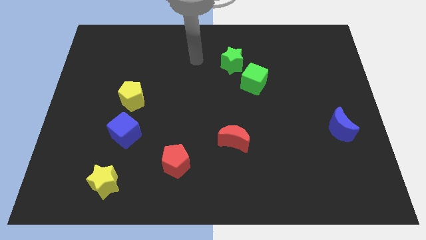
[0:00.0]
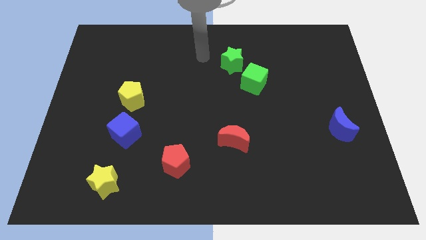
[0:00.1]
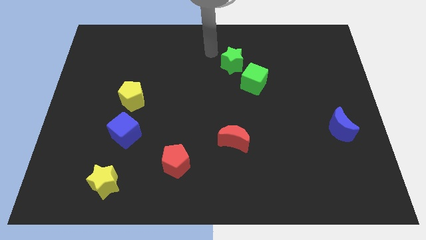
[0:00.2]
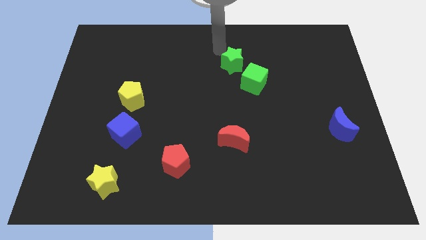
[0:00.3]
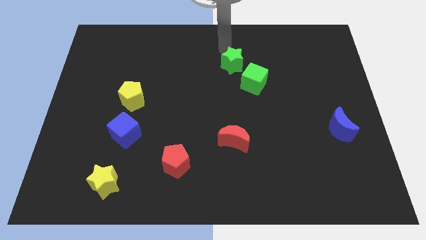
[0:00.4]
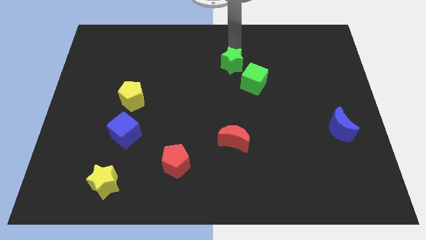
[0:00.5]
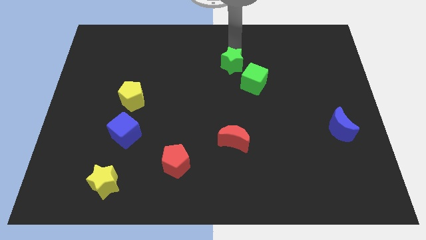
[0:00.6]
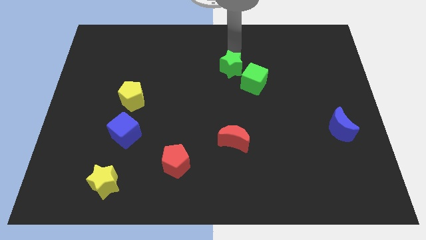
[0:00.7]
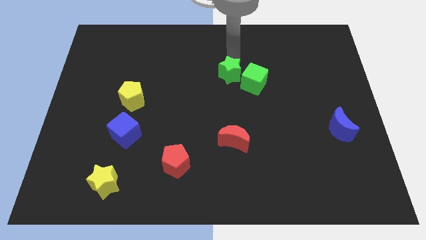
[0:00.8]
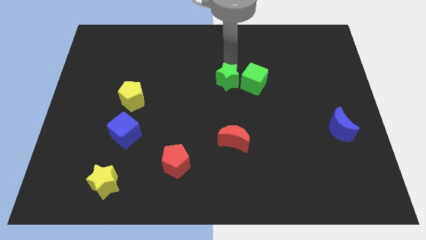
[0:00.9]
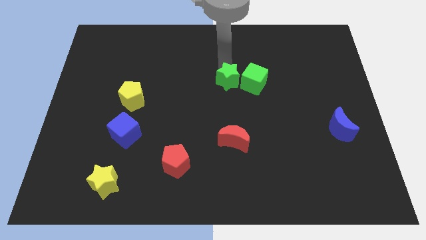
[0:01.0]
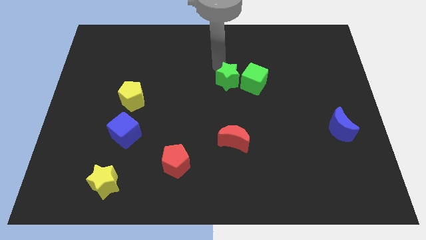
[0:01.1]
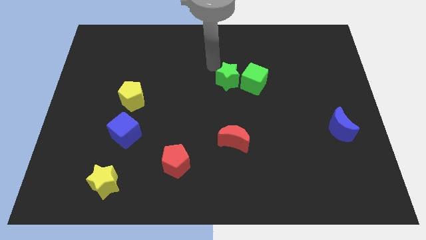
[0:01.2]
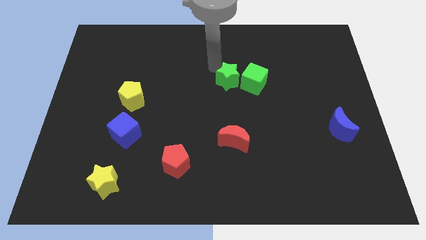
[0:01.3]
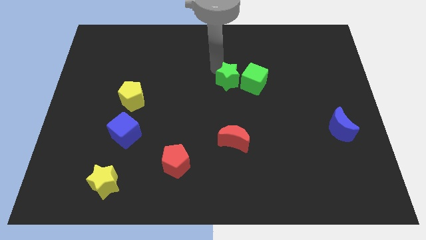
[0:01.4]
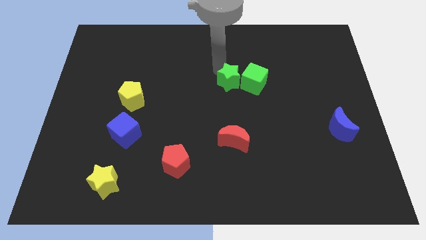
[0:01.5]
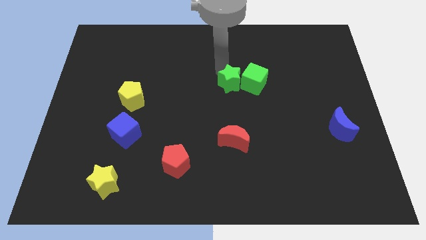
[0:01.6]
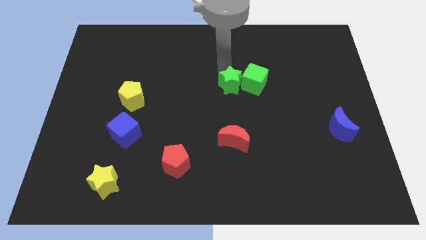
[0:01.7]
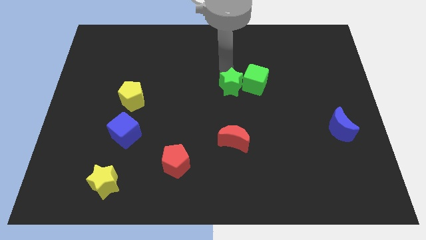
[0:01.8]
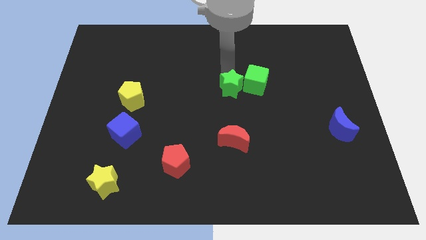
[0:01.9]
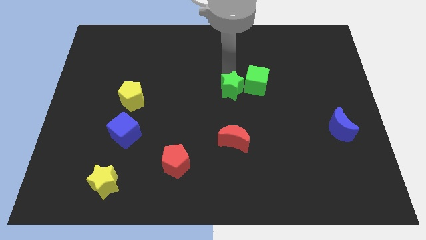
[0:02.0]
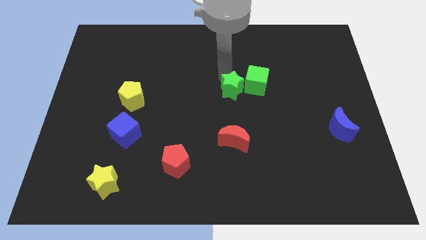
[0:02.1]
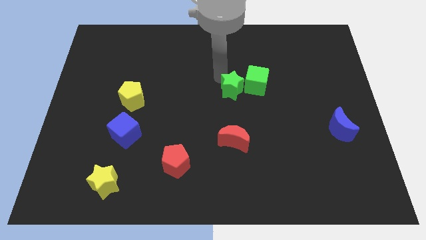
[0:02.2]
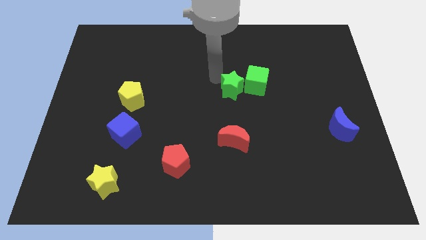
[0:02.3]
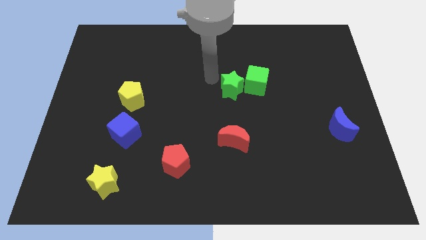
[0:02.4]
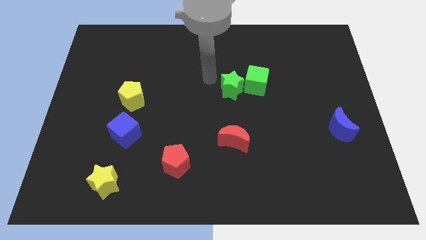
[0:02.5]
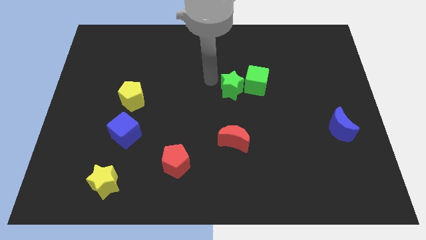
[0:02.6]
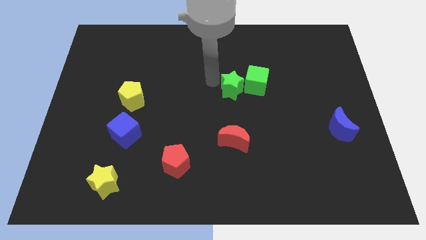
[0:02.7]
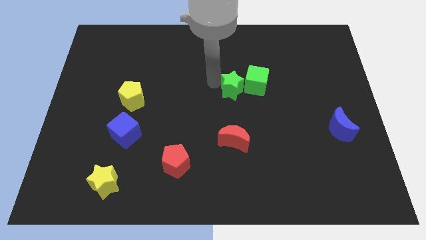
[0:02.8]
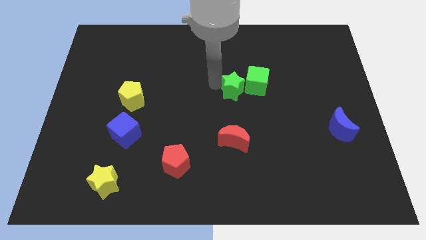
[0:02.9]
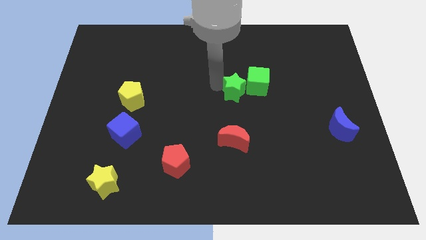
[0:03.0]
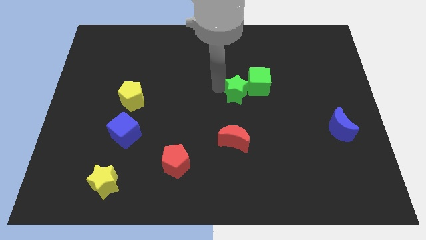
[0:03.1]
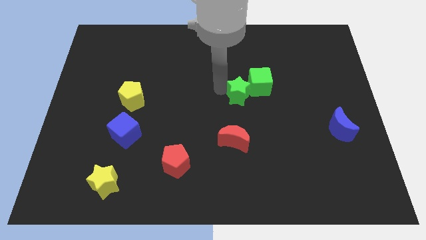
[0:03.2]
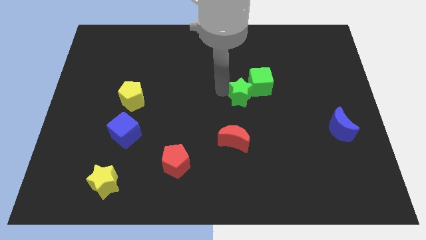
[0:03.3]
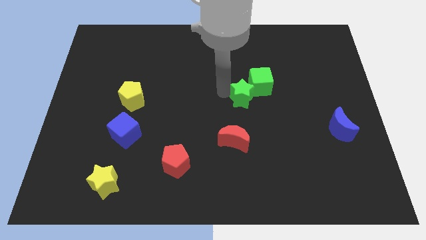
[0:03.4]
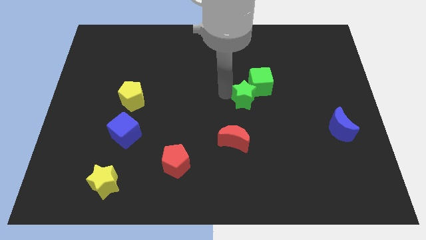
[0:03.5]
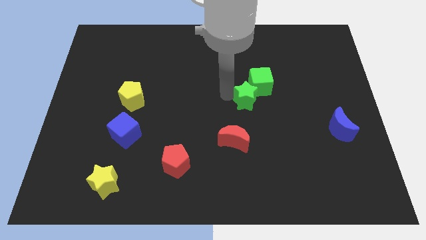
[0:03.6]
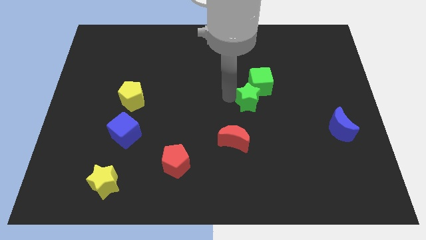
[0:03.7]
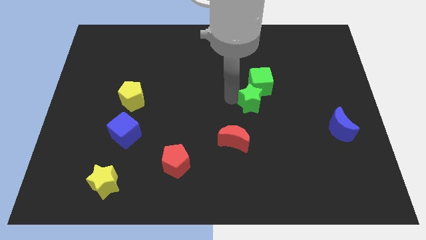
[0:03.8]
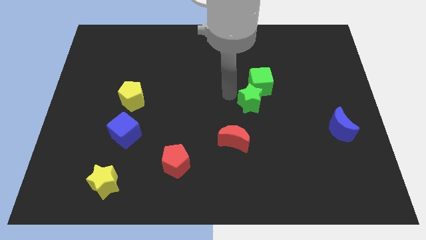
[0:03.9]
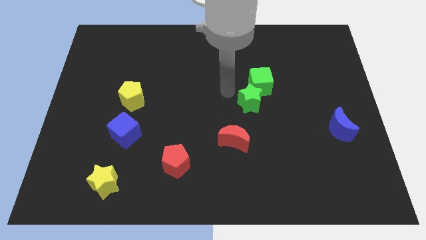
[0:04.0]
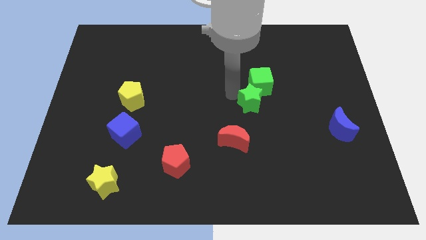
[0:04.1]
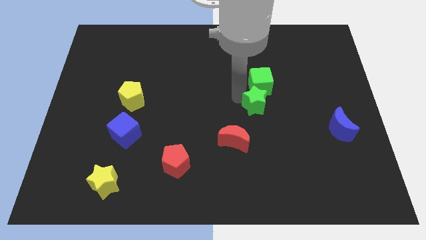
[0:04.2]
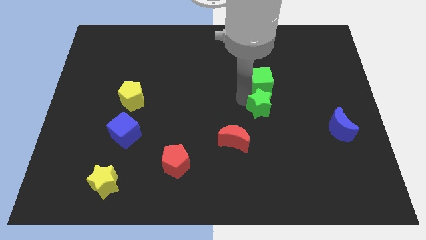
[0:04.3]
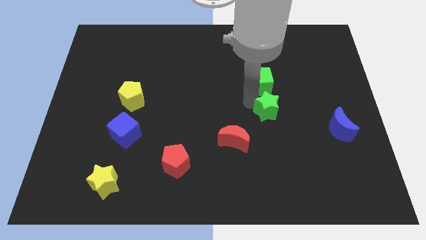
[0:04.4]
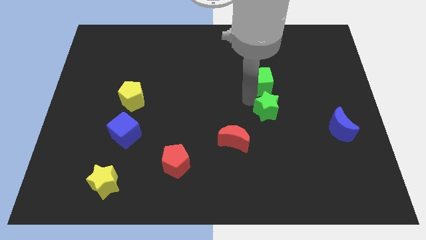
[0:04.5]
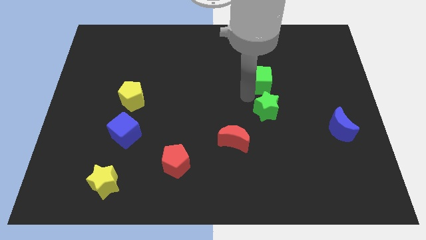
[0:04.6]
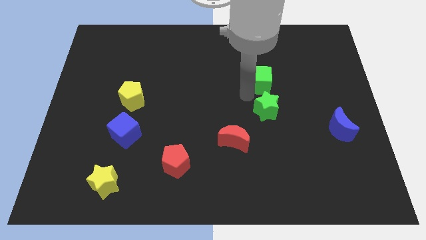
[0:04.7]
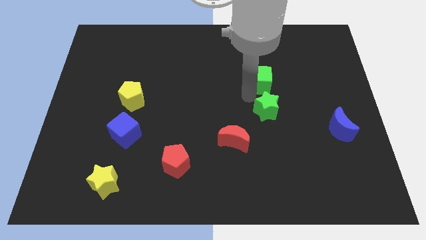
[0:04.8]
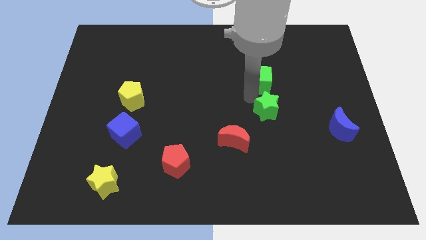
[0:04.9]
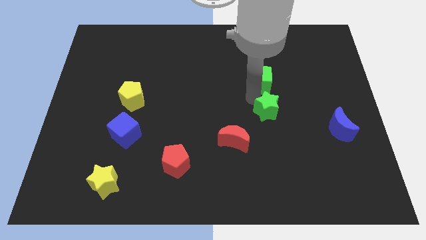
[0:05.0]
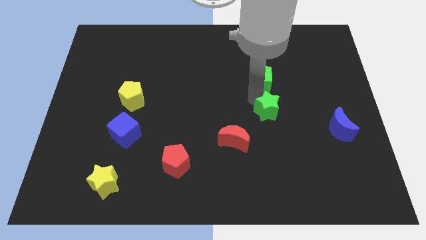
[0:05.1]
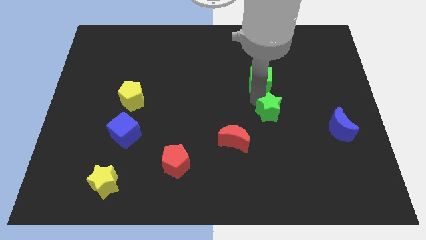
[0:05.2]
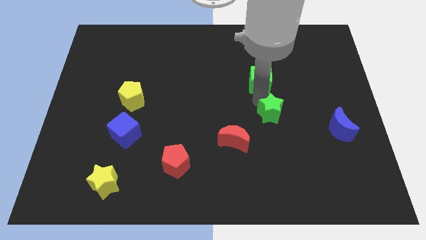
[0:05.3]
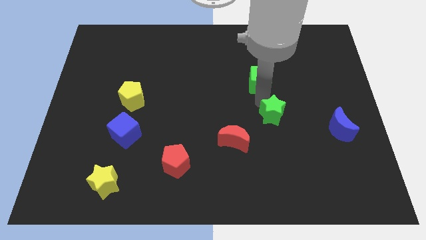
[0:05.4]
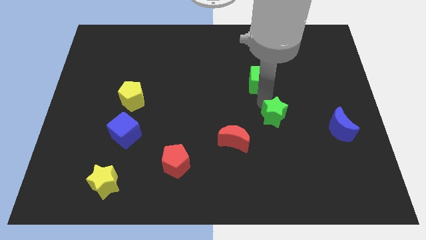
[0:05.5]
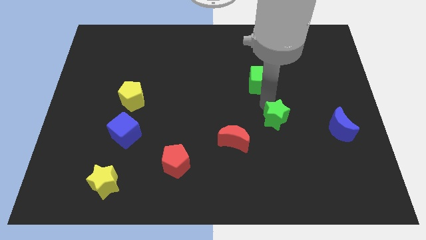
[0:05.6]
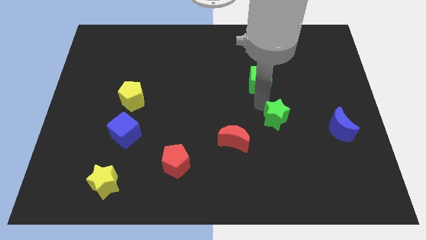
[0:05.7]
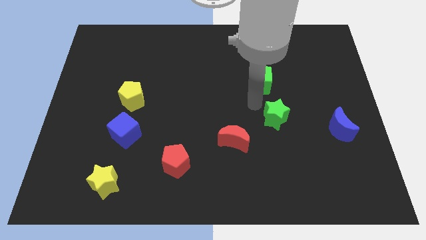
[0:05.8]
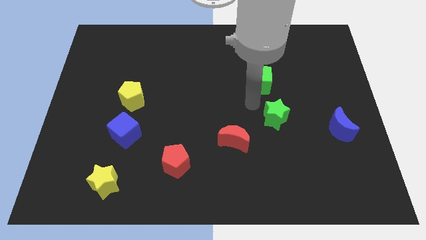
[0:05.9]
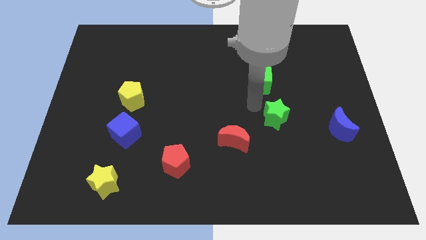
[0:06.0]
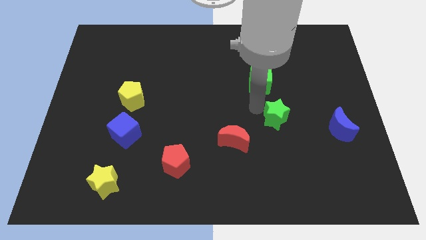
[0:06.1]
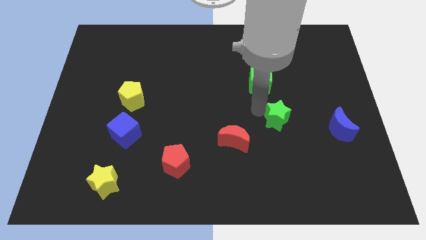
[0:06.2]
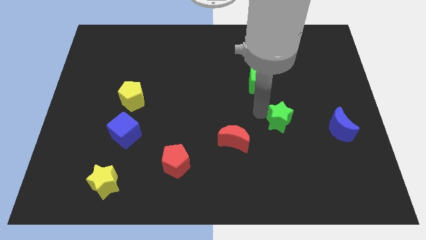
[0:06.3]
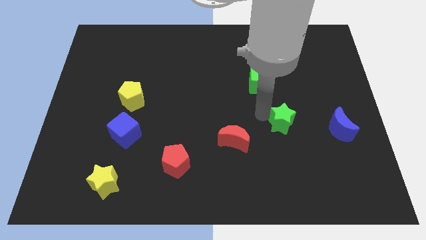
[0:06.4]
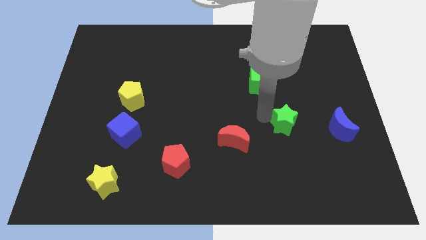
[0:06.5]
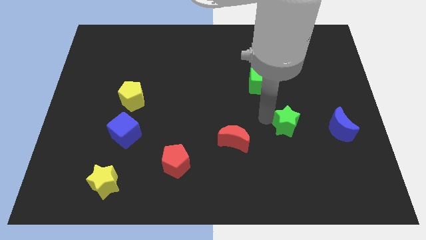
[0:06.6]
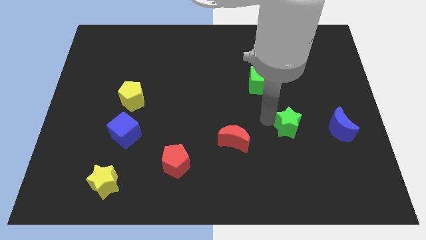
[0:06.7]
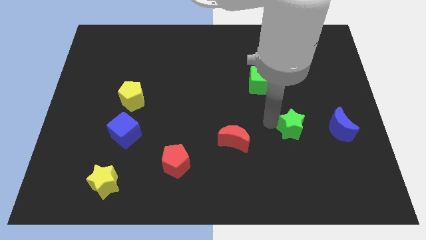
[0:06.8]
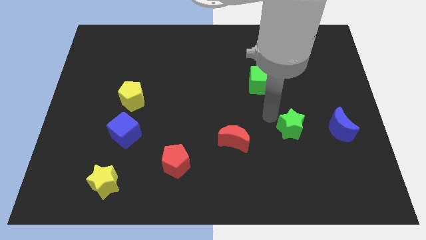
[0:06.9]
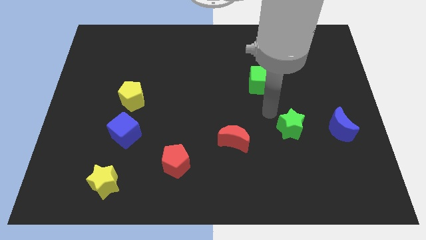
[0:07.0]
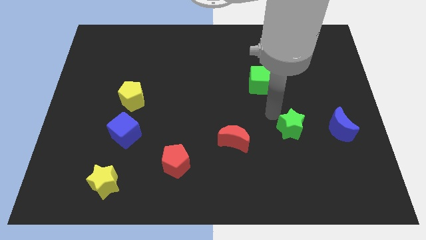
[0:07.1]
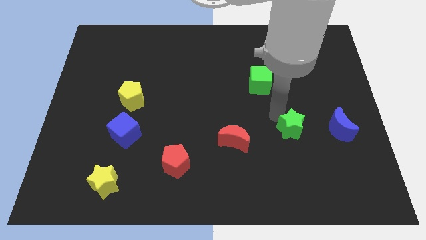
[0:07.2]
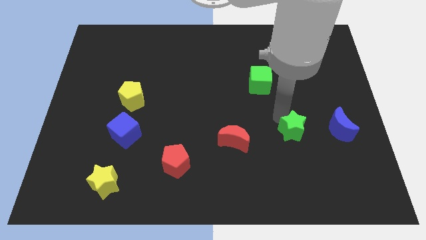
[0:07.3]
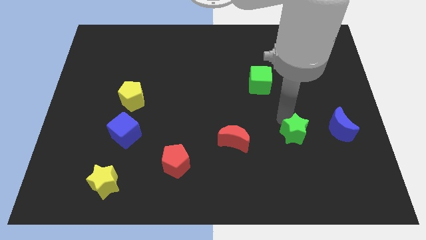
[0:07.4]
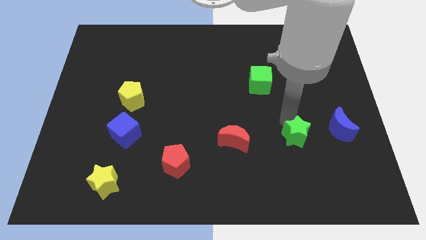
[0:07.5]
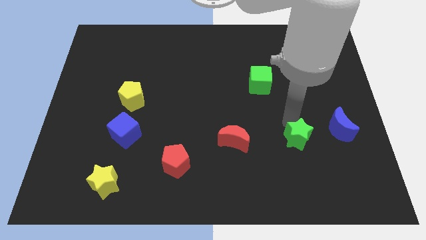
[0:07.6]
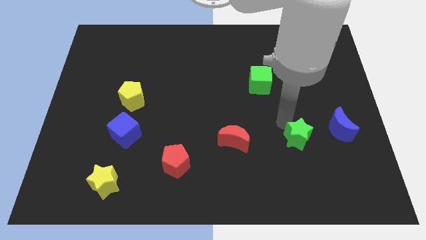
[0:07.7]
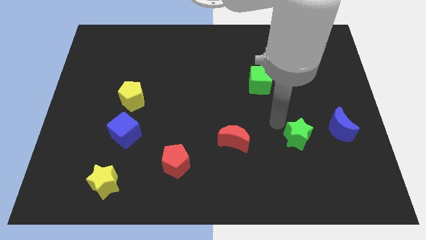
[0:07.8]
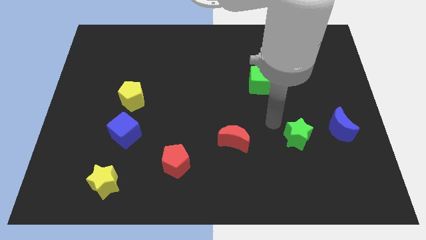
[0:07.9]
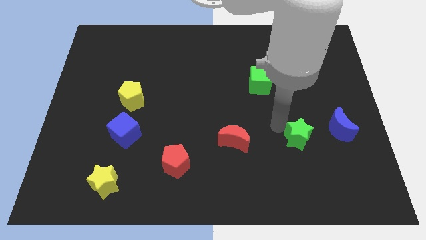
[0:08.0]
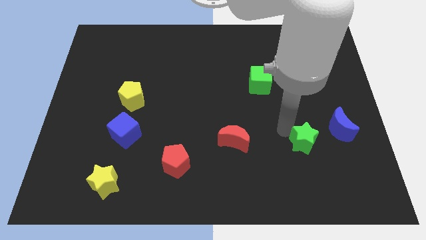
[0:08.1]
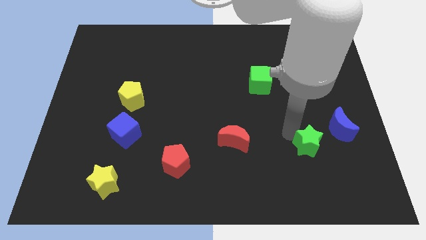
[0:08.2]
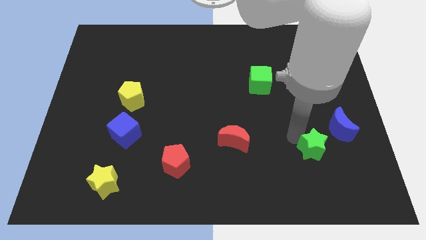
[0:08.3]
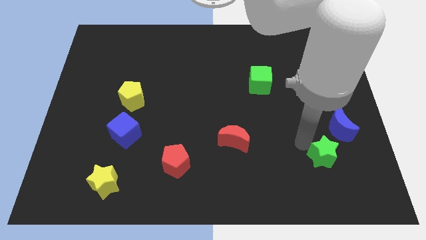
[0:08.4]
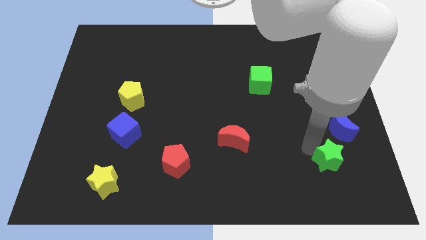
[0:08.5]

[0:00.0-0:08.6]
move the green star to the bottom side of the blue moon
